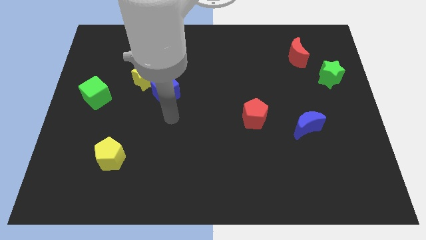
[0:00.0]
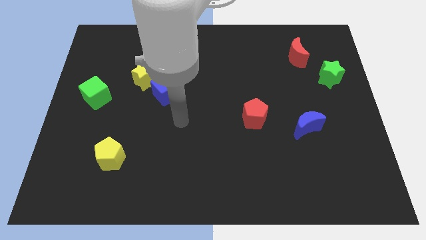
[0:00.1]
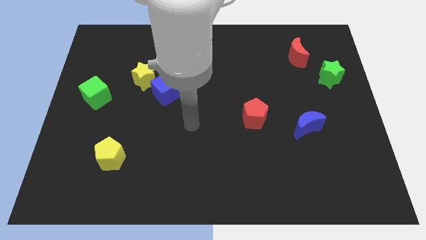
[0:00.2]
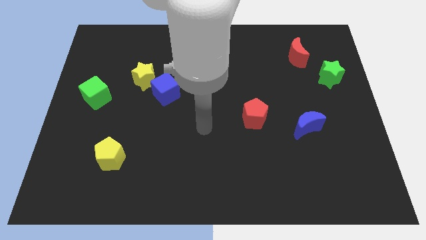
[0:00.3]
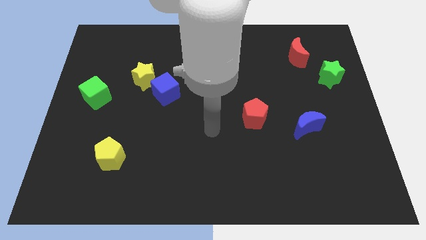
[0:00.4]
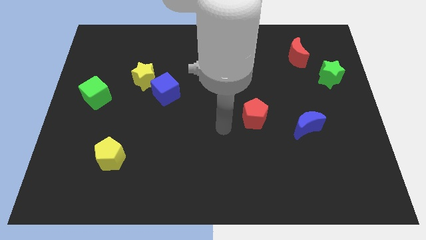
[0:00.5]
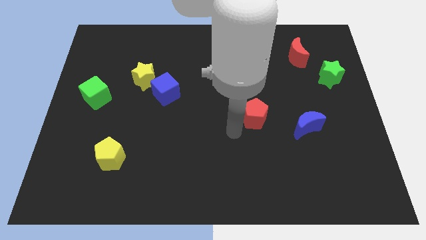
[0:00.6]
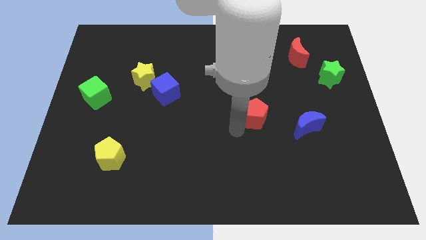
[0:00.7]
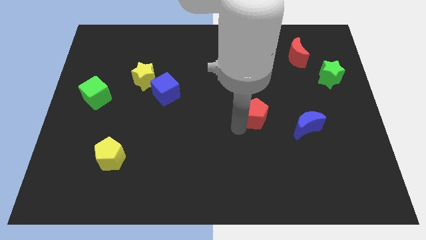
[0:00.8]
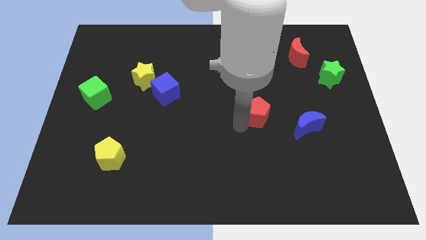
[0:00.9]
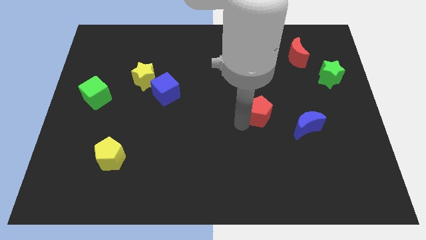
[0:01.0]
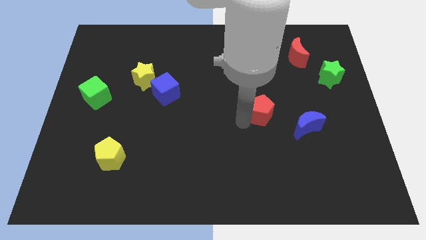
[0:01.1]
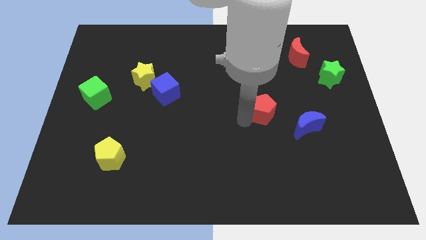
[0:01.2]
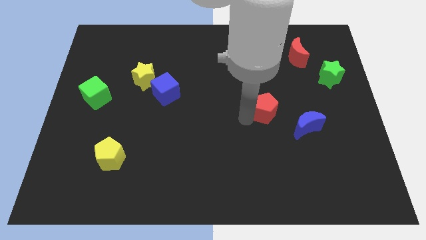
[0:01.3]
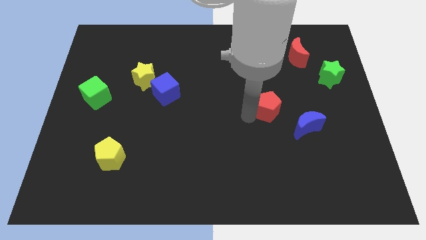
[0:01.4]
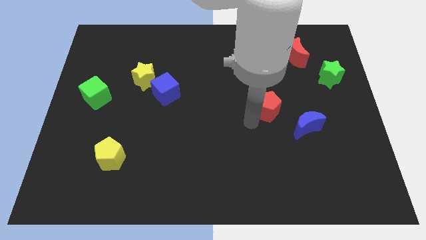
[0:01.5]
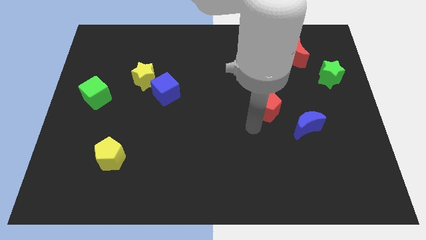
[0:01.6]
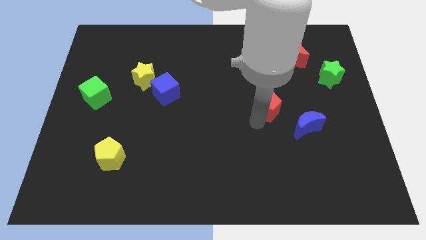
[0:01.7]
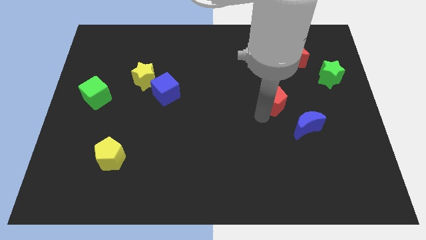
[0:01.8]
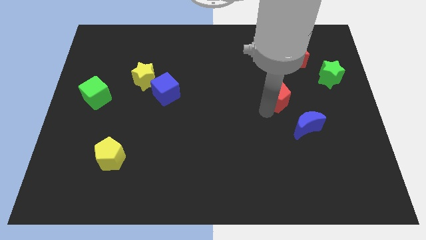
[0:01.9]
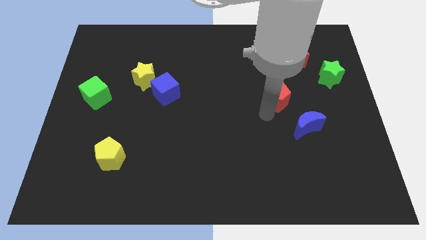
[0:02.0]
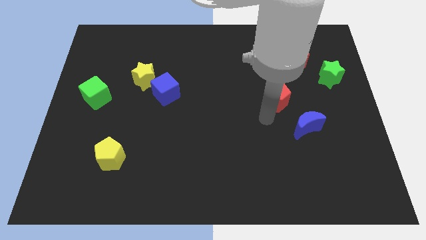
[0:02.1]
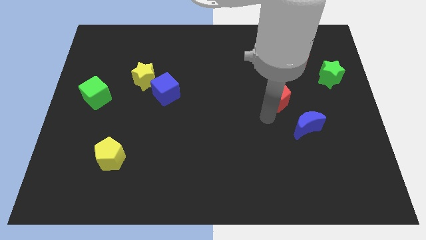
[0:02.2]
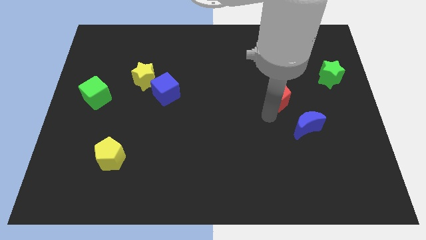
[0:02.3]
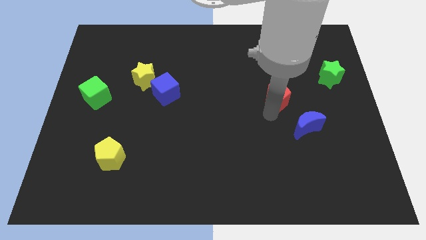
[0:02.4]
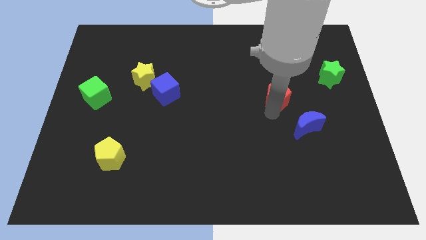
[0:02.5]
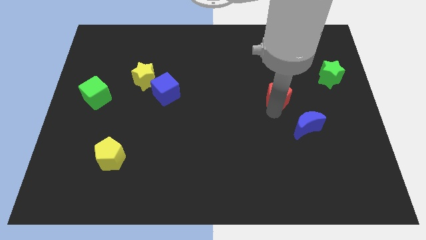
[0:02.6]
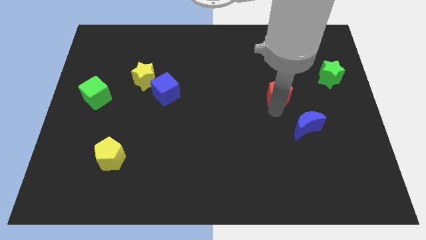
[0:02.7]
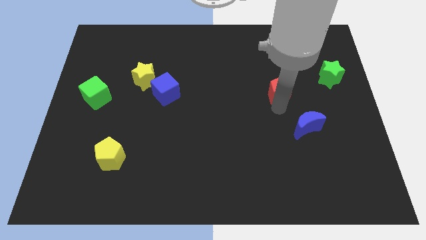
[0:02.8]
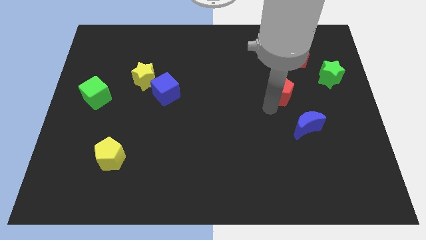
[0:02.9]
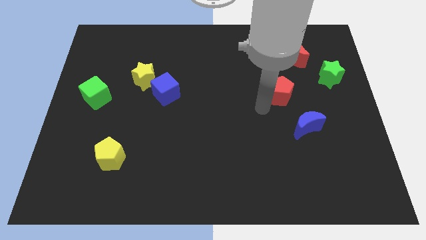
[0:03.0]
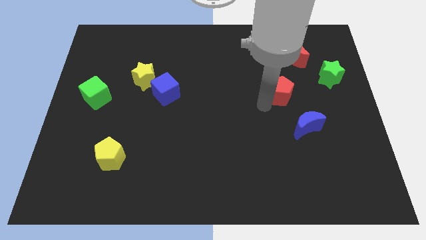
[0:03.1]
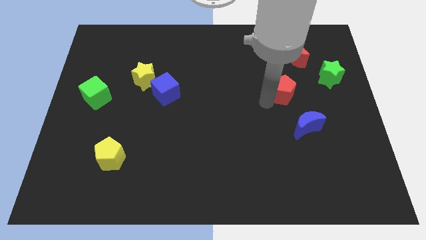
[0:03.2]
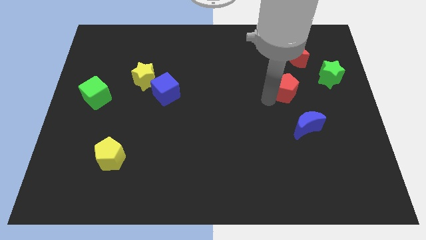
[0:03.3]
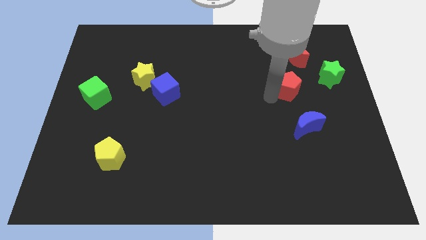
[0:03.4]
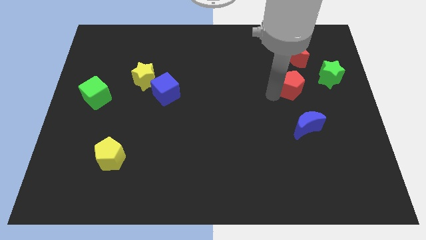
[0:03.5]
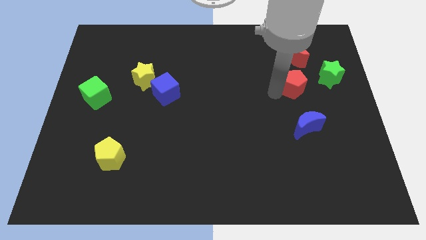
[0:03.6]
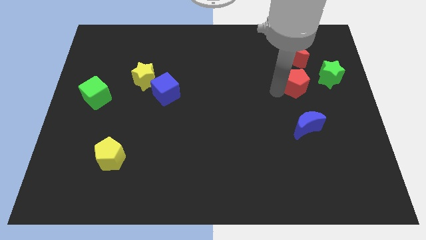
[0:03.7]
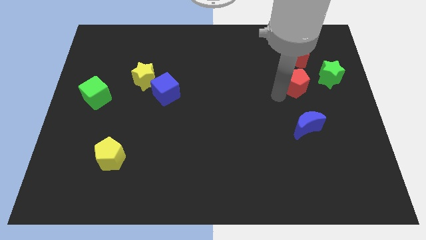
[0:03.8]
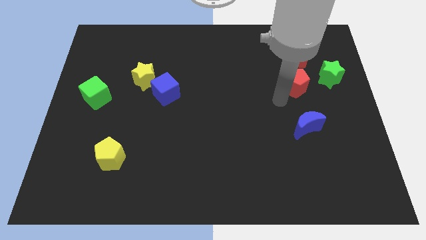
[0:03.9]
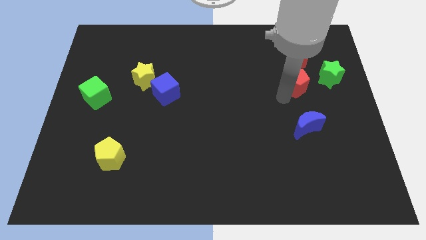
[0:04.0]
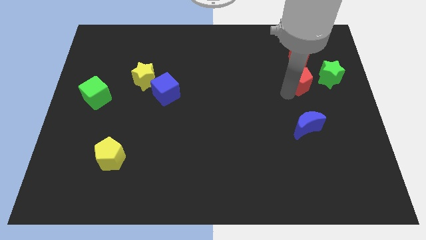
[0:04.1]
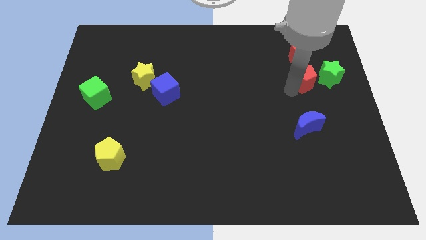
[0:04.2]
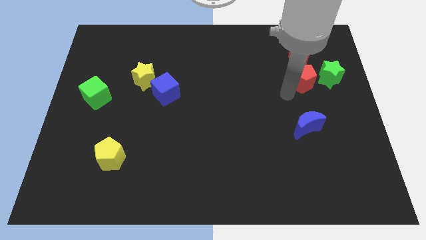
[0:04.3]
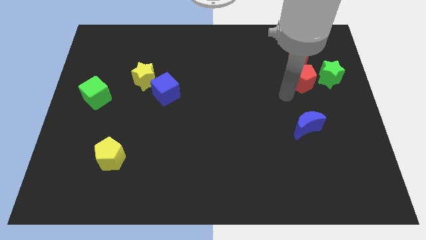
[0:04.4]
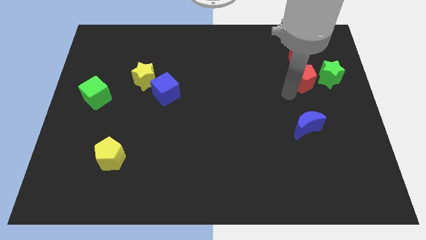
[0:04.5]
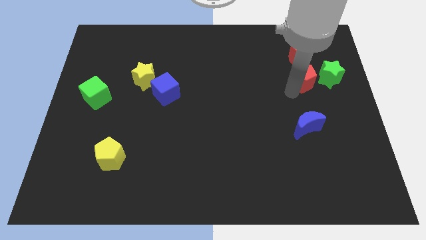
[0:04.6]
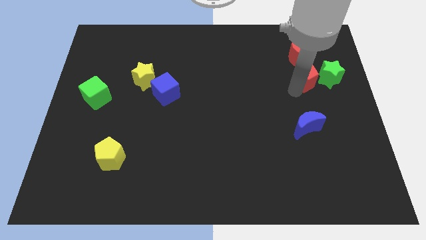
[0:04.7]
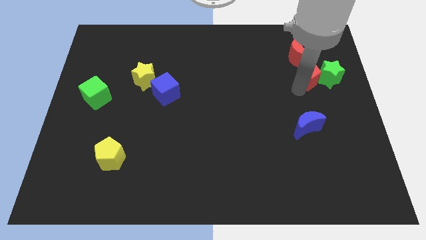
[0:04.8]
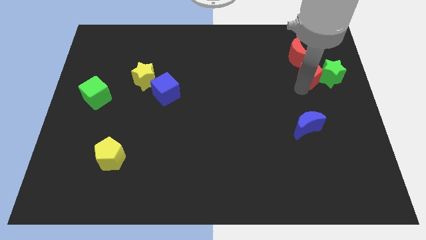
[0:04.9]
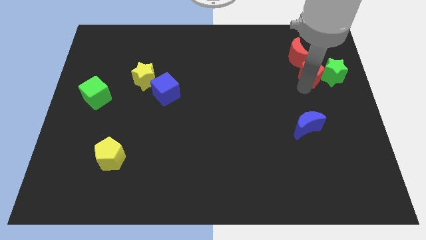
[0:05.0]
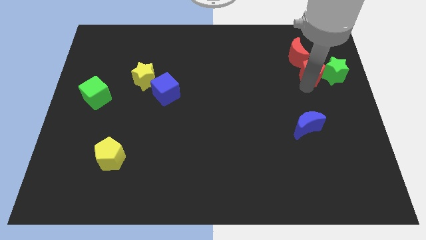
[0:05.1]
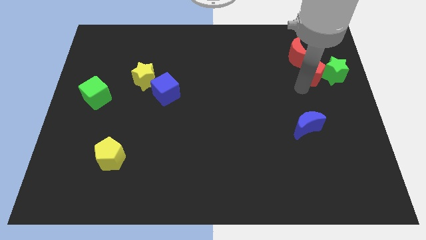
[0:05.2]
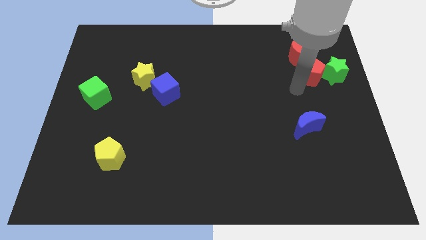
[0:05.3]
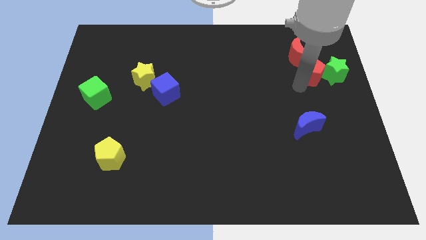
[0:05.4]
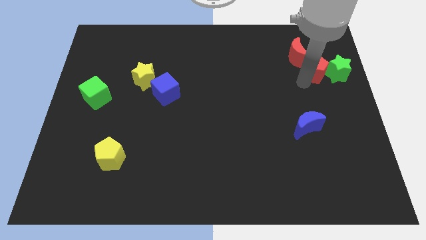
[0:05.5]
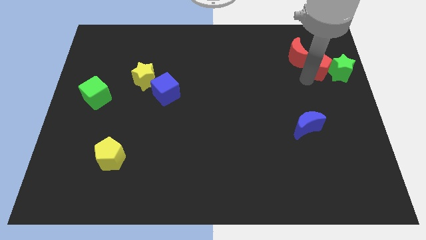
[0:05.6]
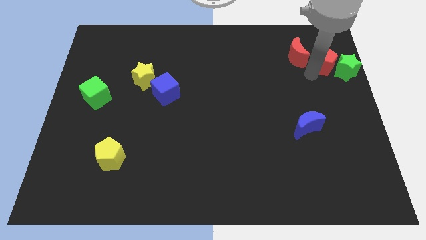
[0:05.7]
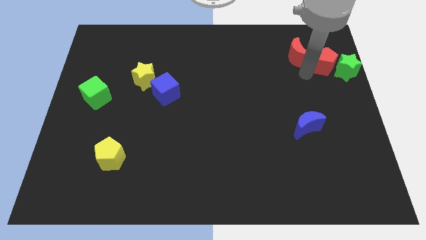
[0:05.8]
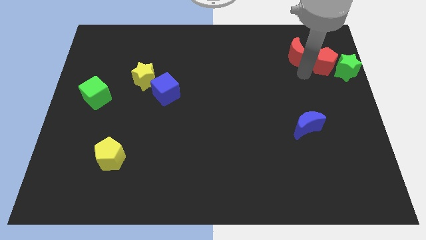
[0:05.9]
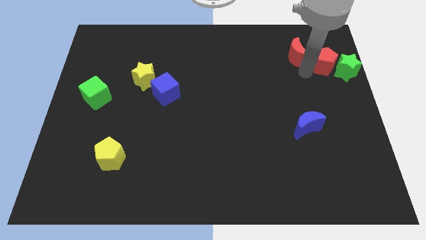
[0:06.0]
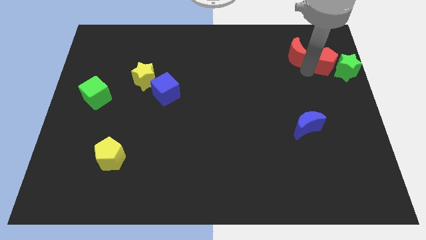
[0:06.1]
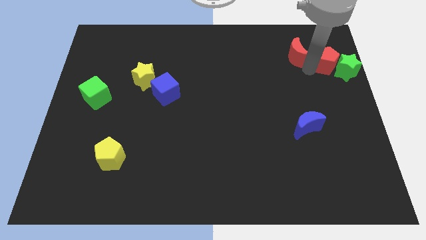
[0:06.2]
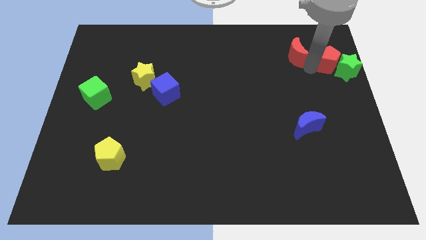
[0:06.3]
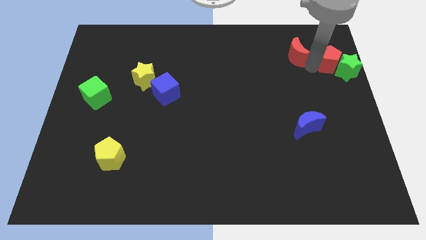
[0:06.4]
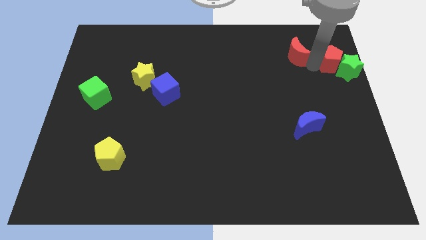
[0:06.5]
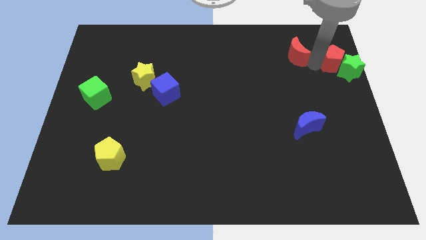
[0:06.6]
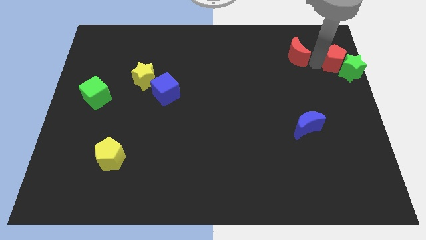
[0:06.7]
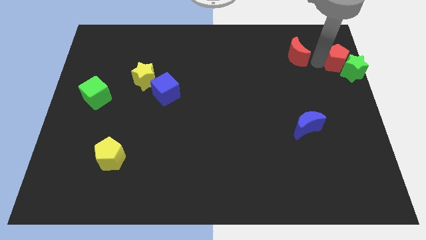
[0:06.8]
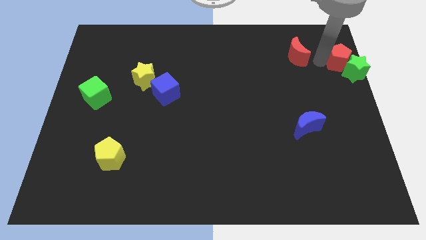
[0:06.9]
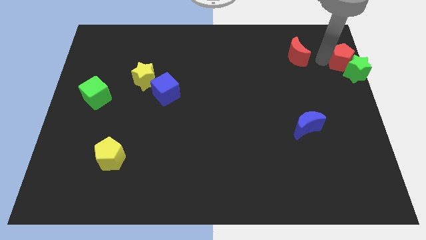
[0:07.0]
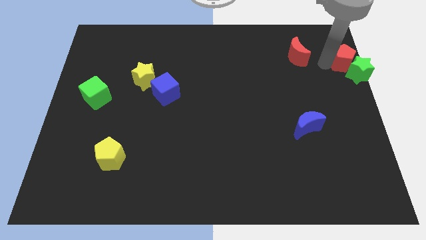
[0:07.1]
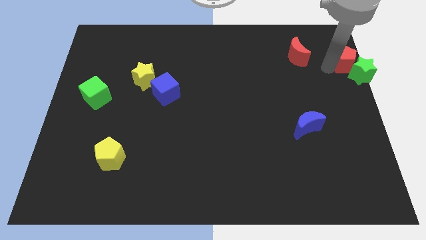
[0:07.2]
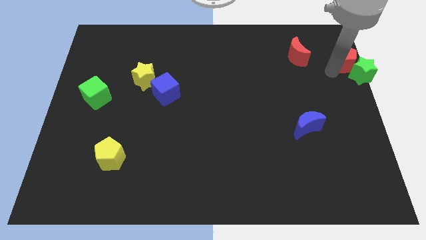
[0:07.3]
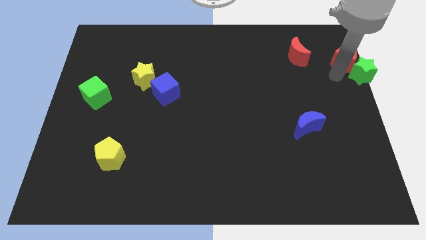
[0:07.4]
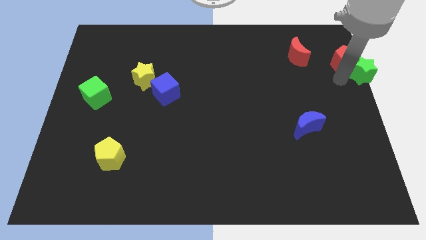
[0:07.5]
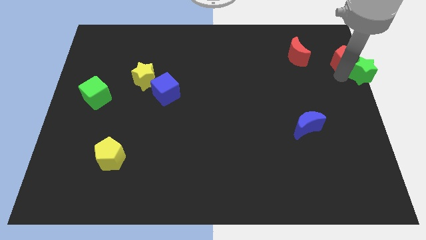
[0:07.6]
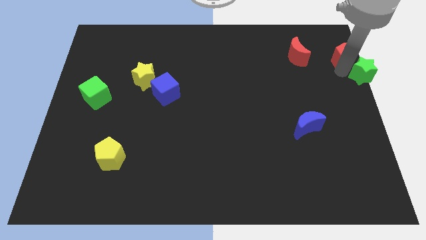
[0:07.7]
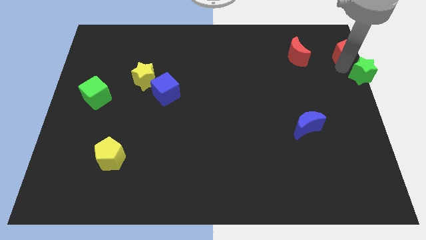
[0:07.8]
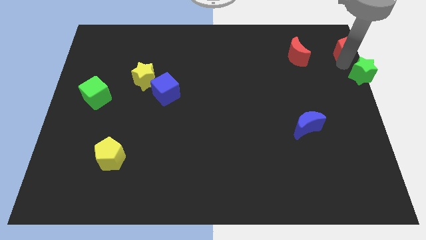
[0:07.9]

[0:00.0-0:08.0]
slide the red pentagon to the top right of the board

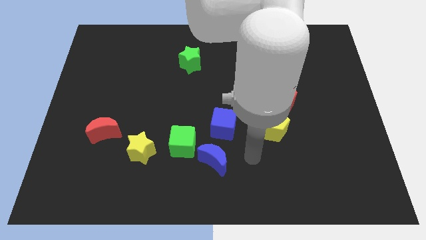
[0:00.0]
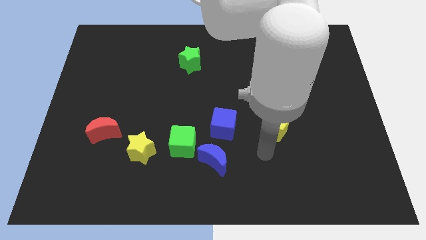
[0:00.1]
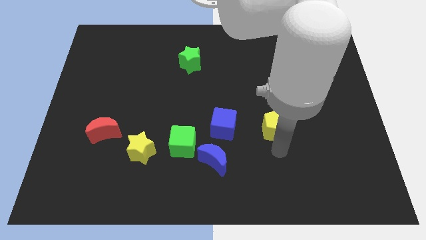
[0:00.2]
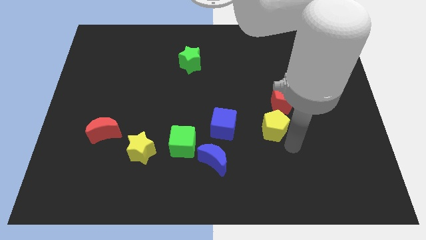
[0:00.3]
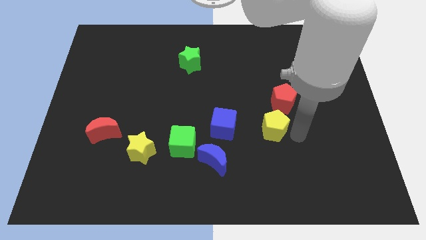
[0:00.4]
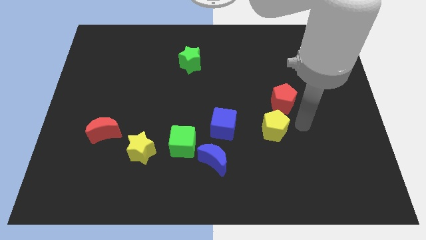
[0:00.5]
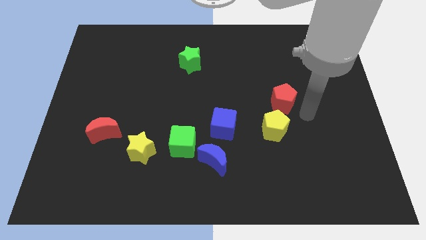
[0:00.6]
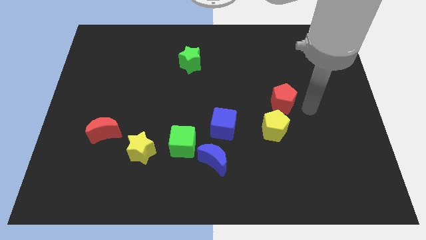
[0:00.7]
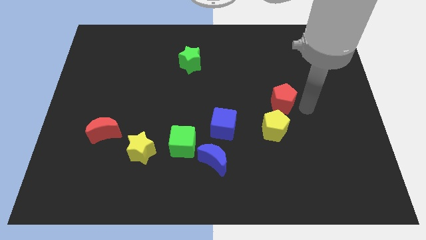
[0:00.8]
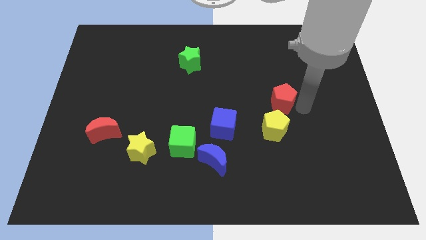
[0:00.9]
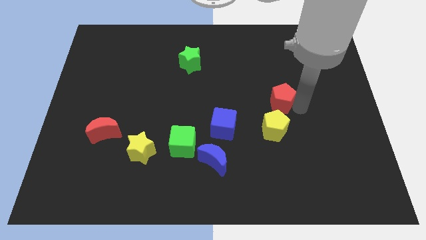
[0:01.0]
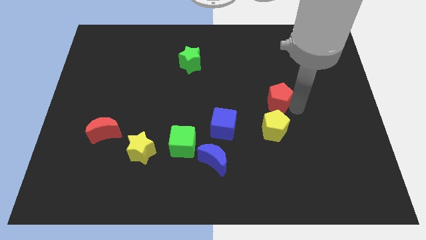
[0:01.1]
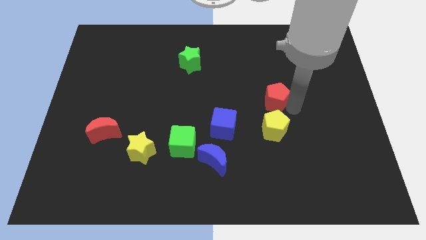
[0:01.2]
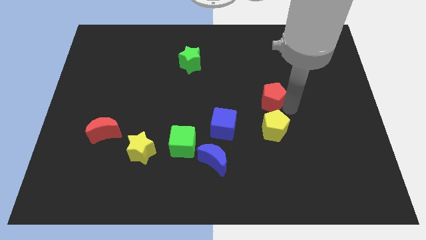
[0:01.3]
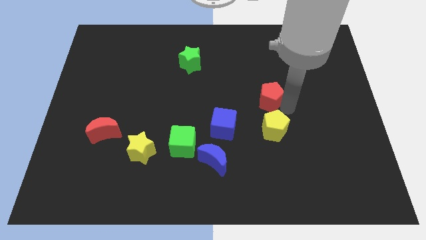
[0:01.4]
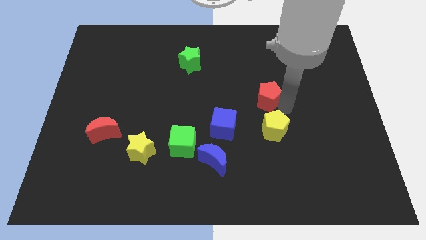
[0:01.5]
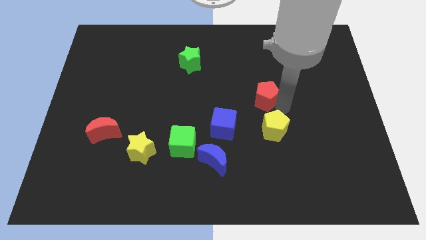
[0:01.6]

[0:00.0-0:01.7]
move the red pentagon to the middle
